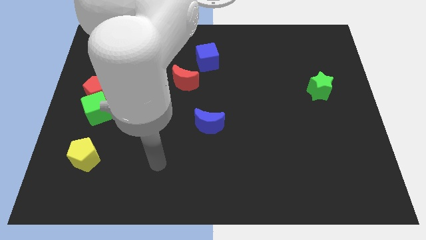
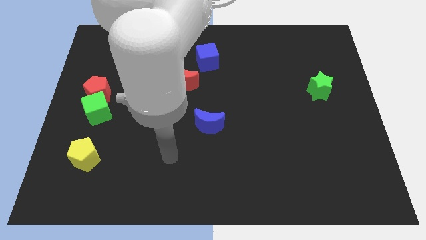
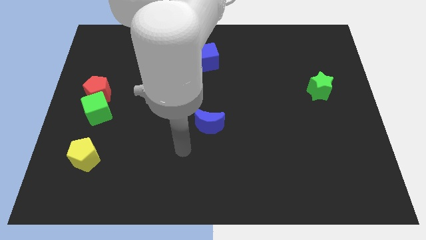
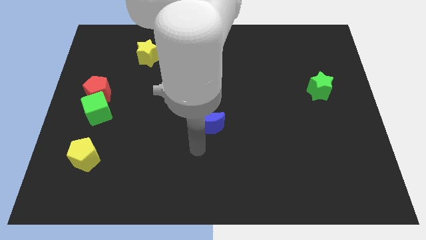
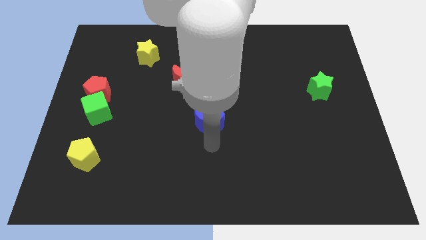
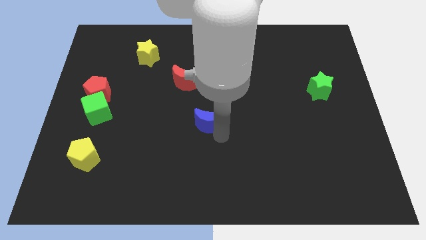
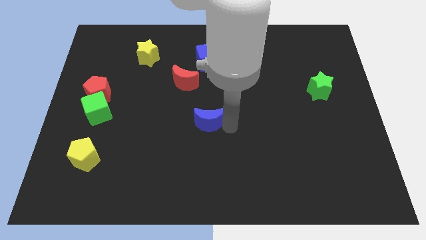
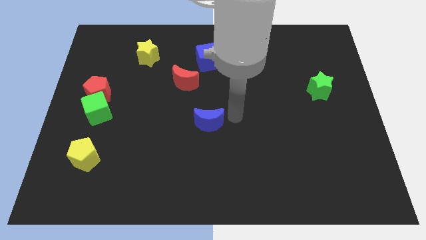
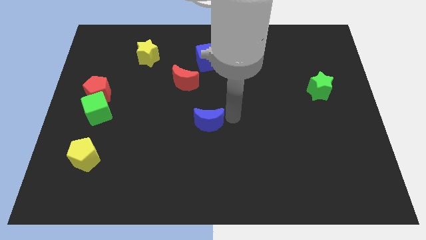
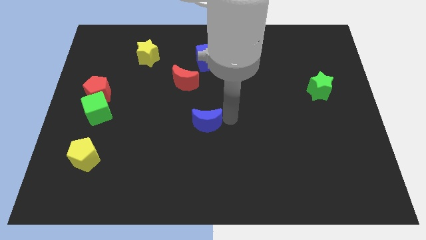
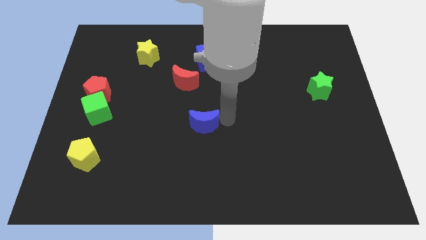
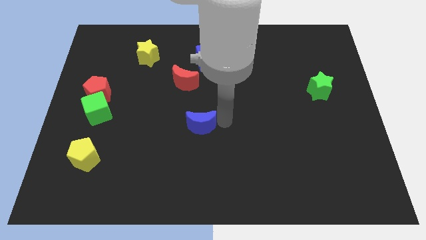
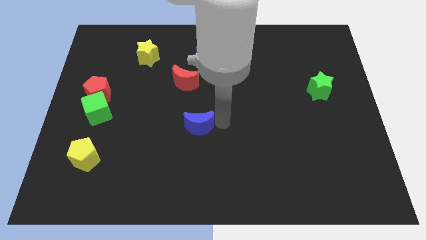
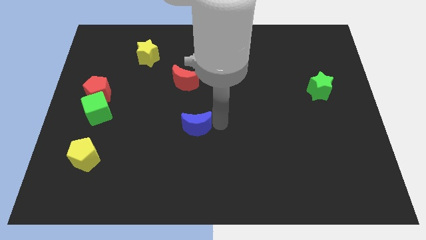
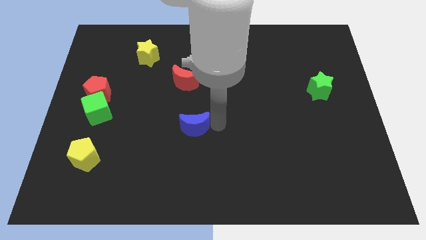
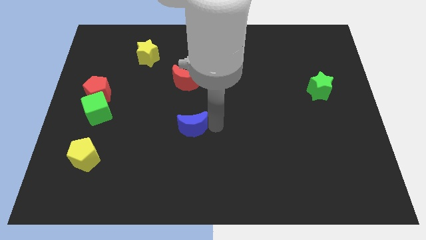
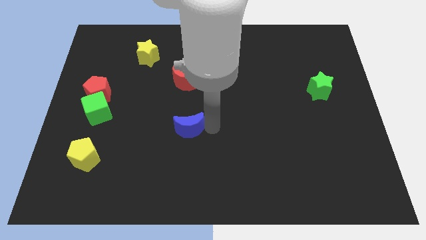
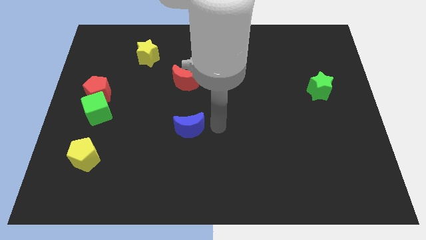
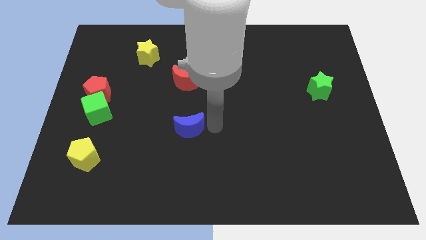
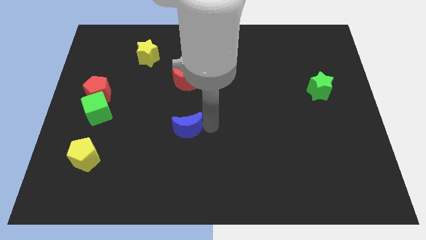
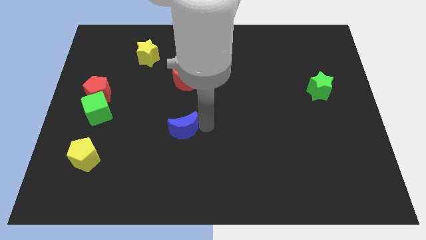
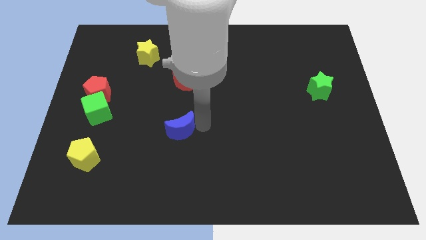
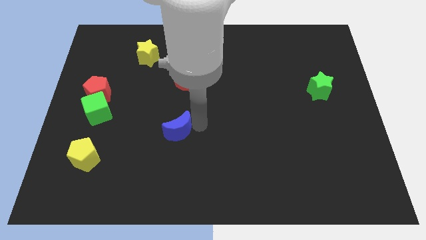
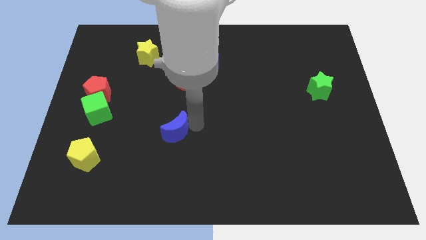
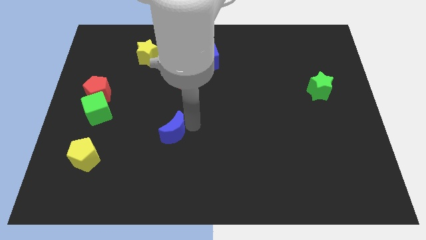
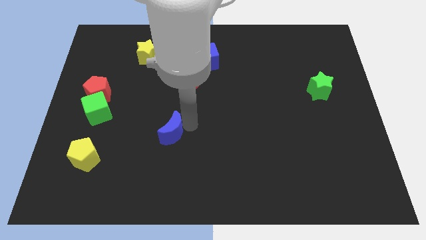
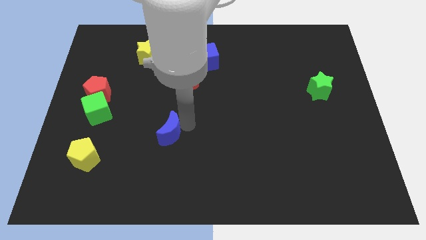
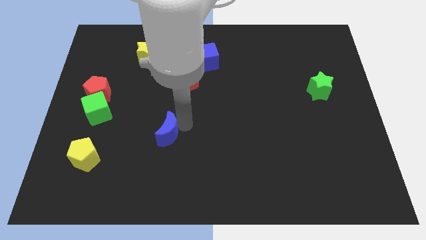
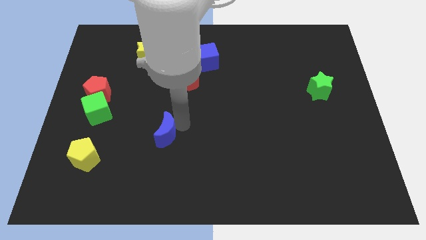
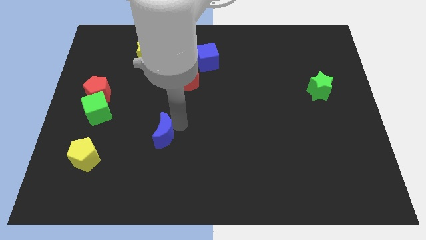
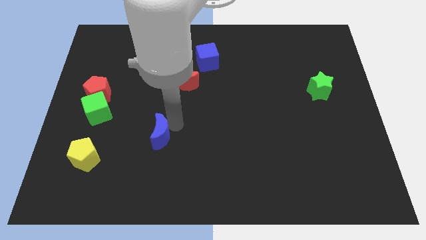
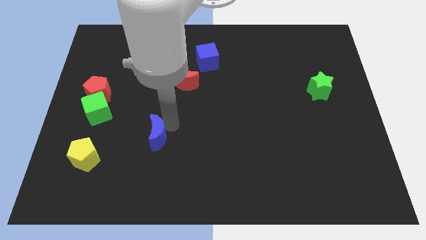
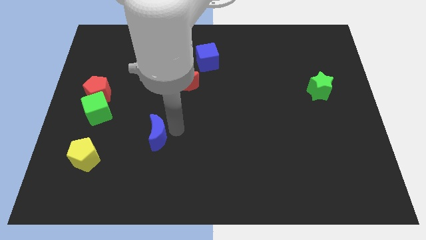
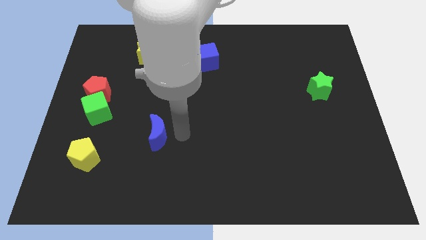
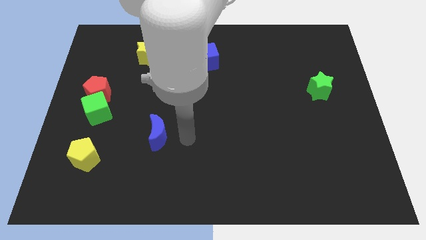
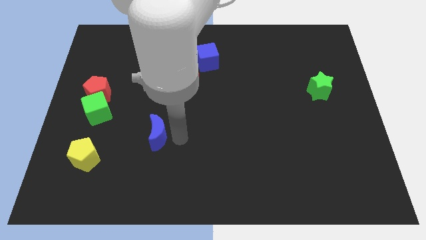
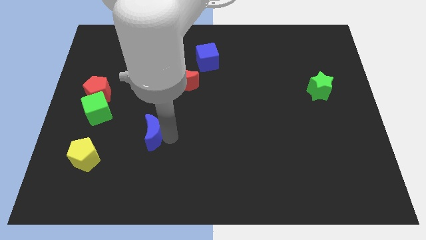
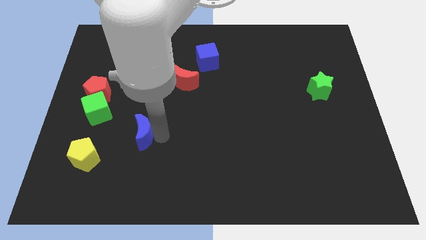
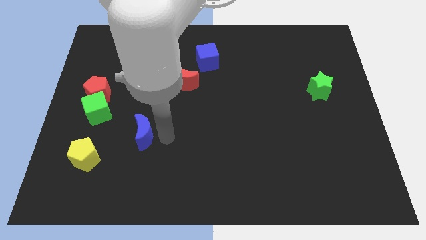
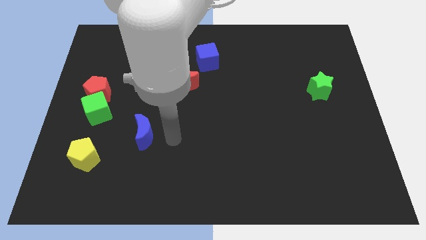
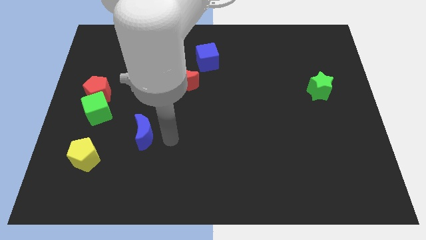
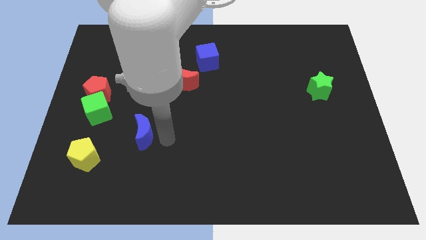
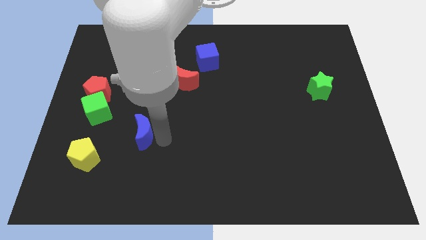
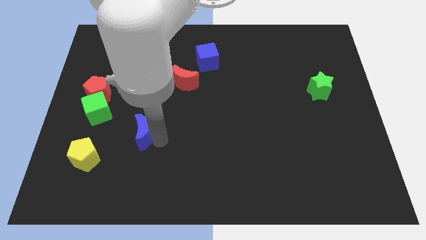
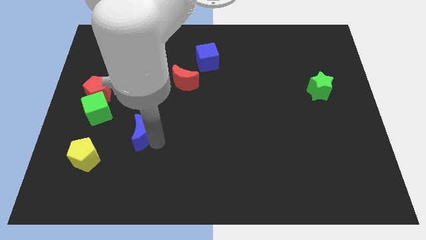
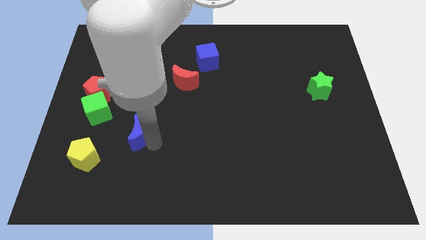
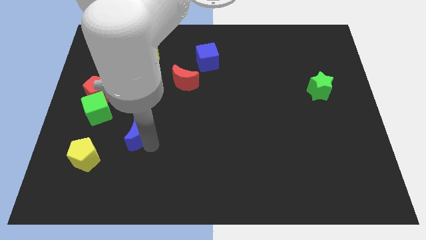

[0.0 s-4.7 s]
push the blue moon to the bottom right of the green cube

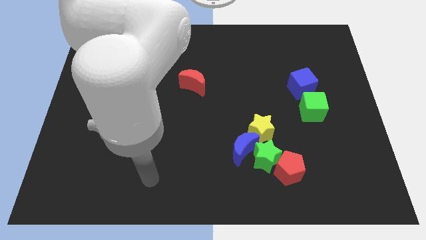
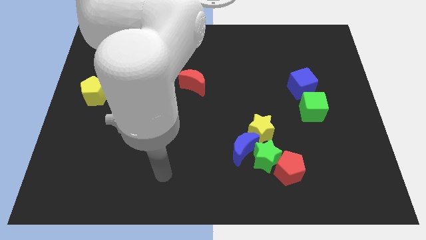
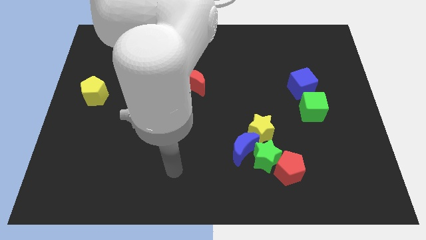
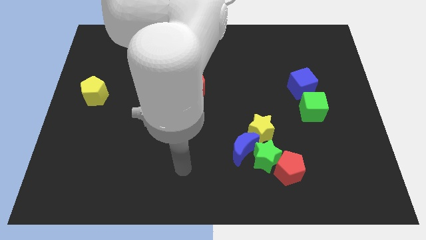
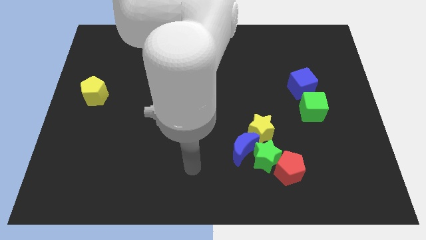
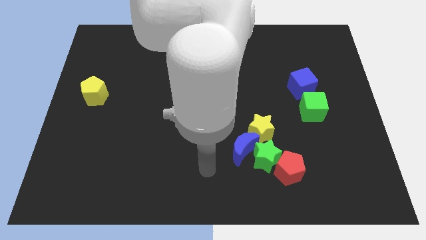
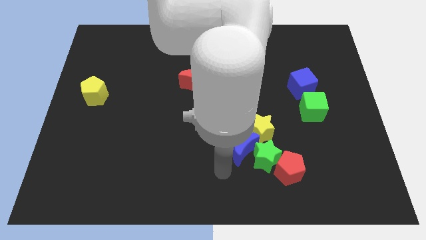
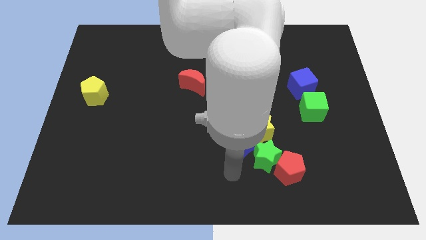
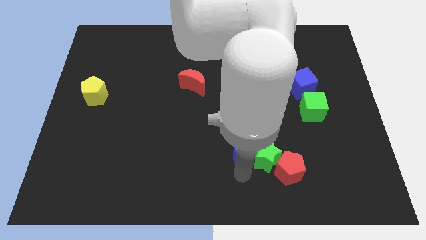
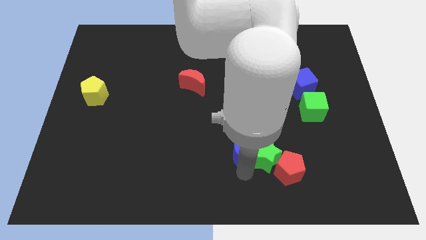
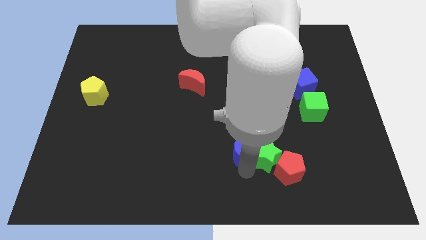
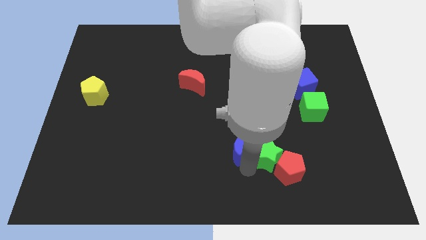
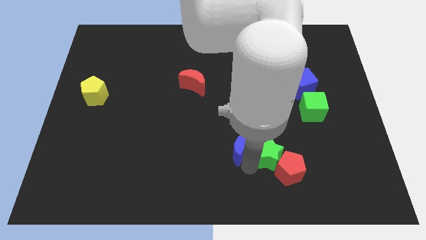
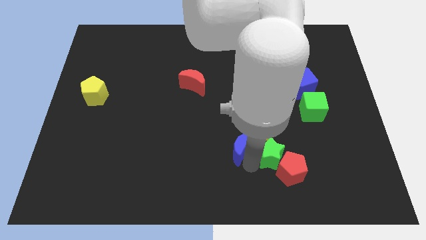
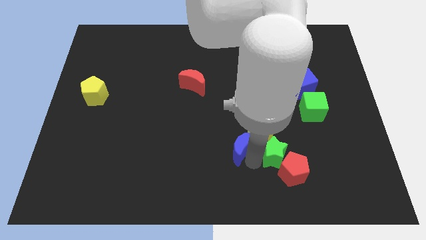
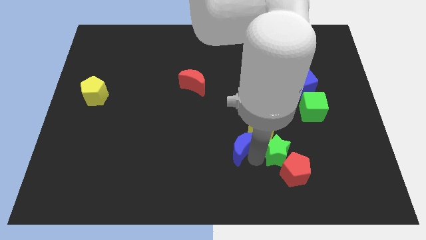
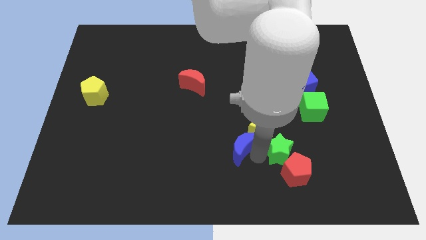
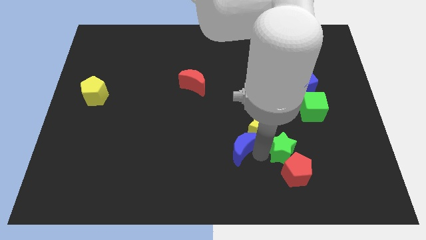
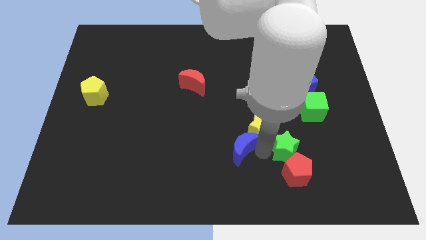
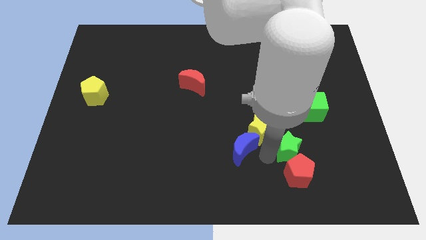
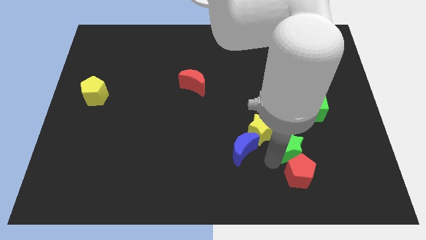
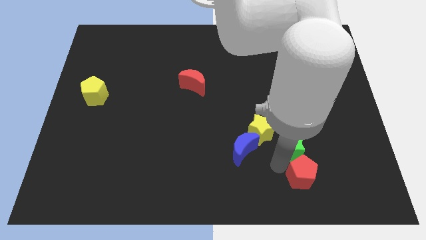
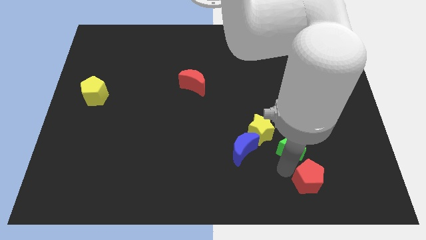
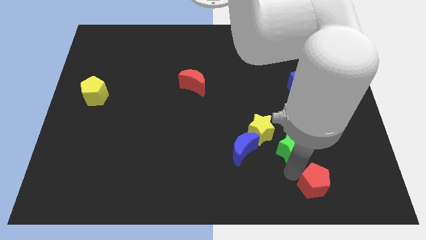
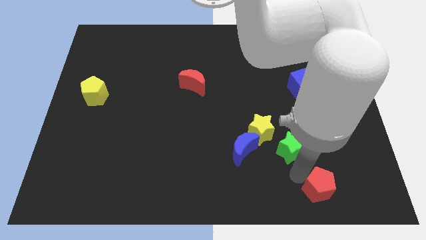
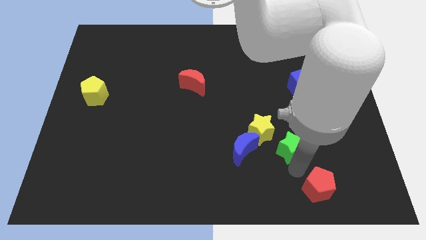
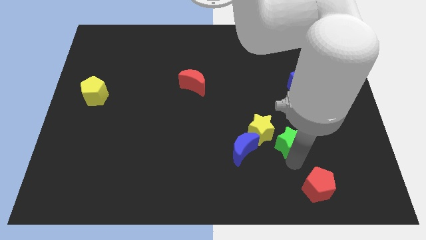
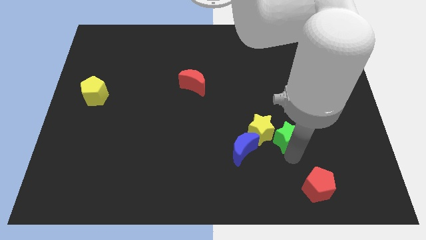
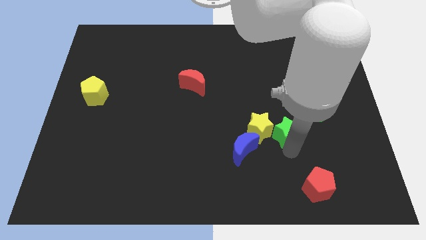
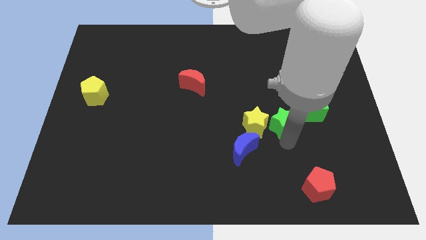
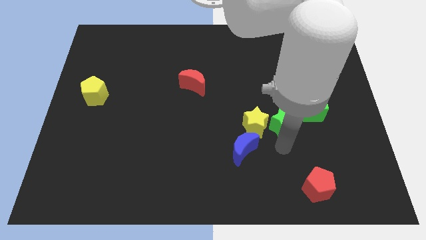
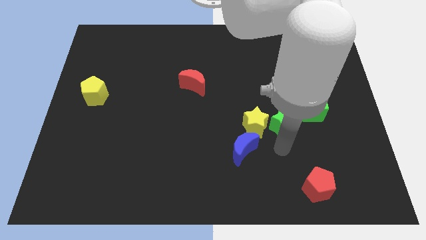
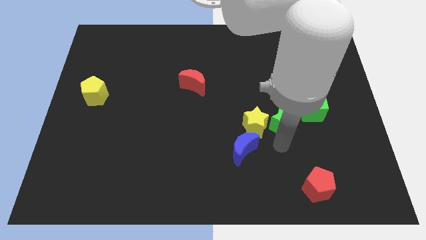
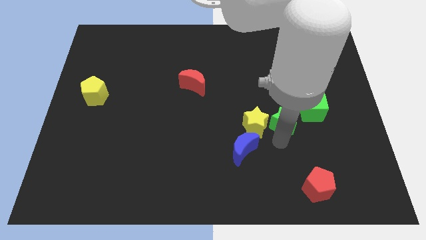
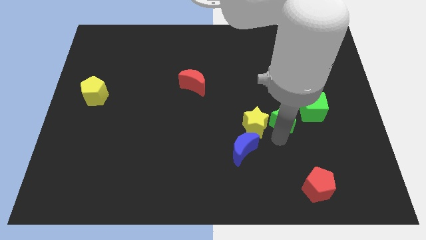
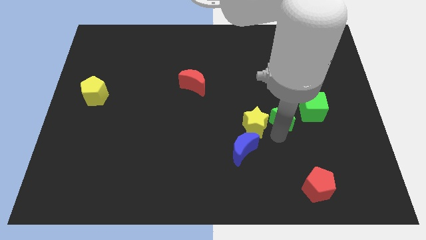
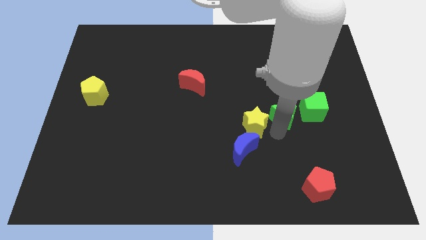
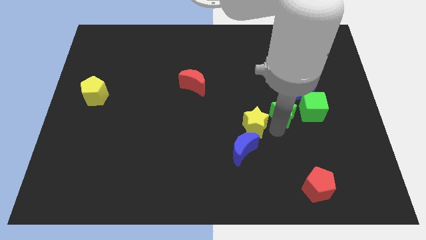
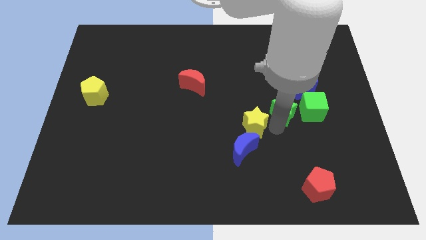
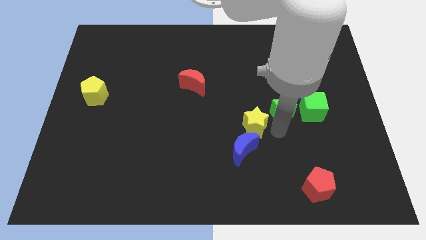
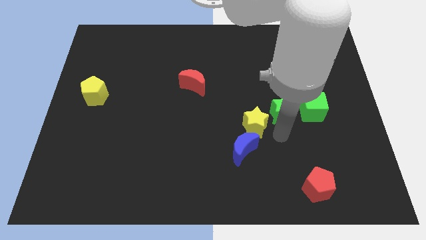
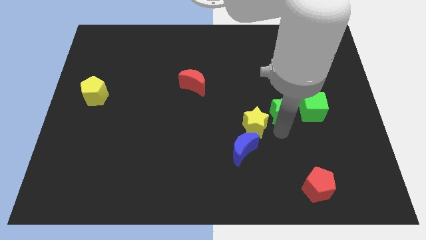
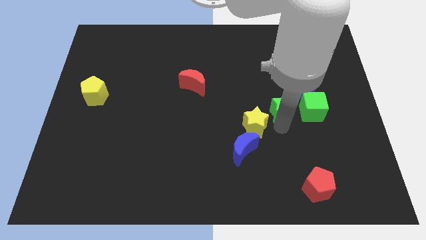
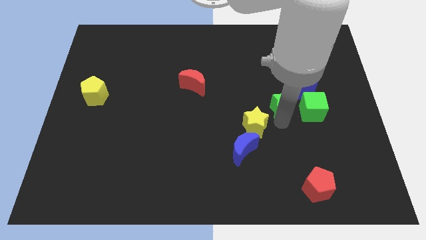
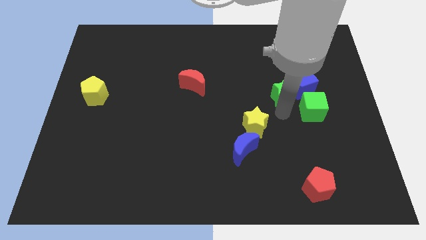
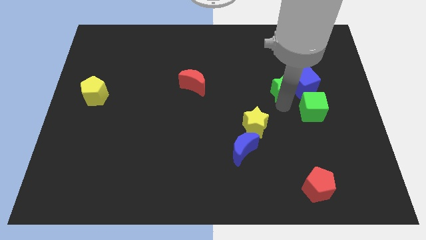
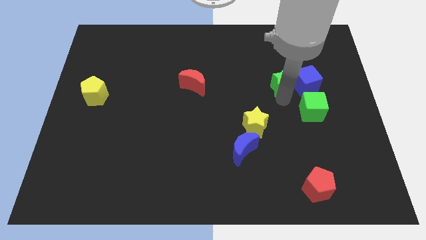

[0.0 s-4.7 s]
slide the green star diagonally up and to the left of the blue cube
